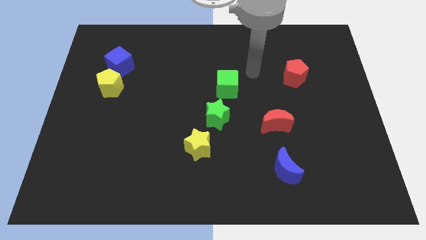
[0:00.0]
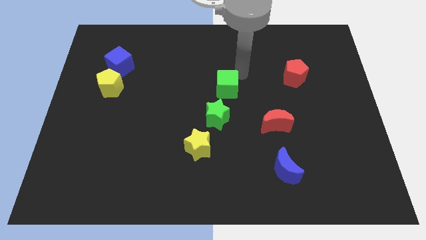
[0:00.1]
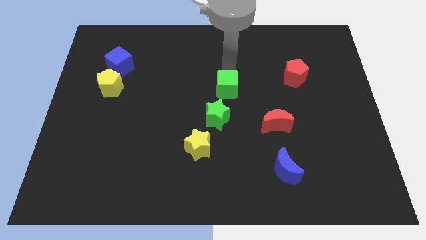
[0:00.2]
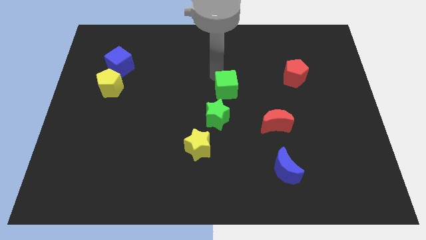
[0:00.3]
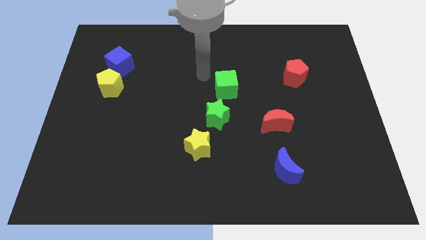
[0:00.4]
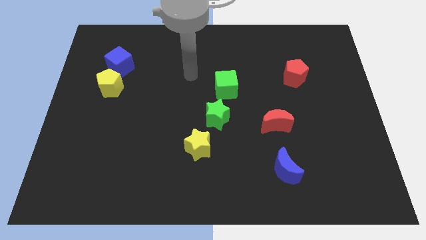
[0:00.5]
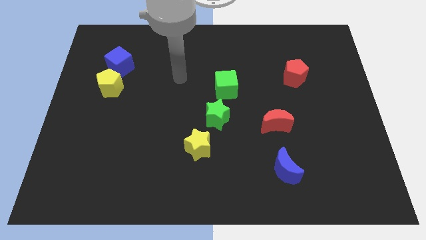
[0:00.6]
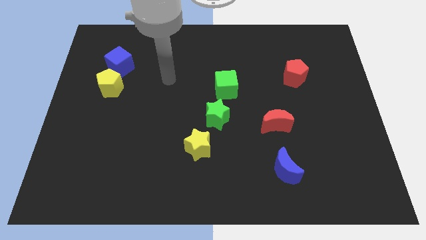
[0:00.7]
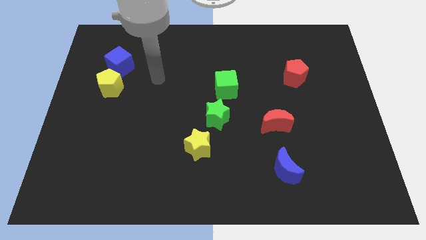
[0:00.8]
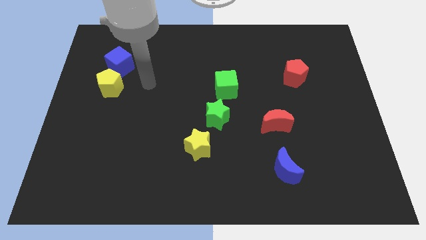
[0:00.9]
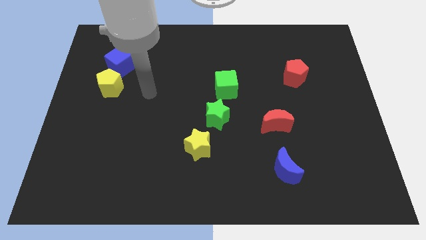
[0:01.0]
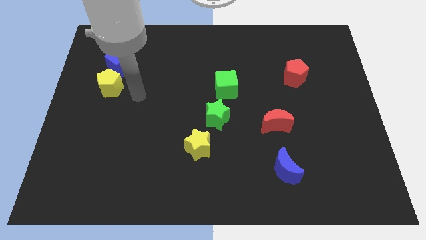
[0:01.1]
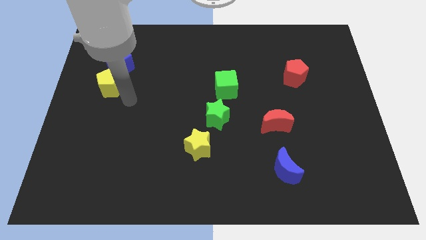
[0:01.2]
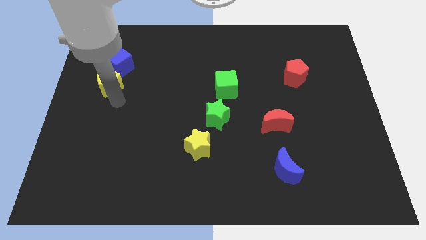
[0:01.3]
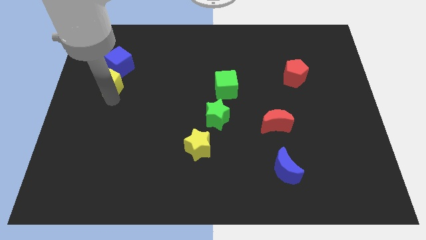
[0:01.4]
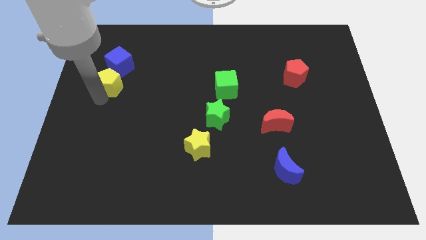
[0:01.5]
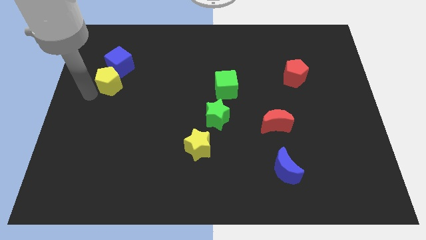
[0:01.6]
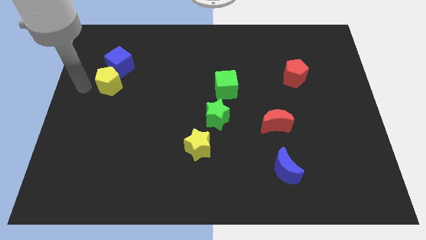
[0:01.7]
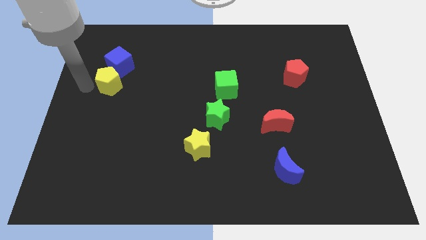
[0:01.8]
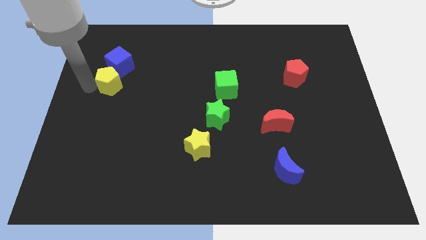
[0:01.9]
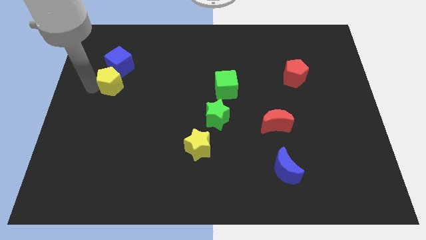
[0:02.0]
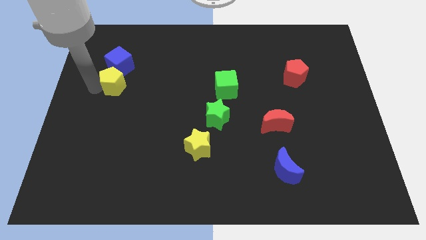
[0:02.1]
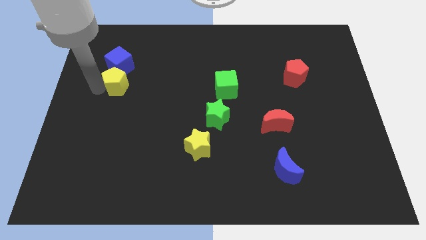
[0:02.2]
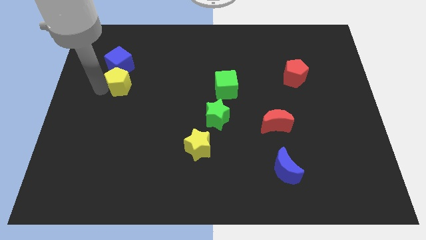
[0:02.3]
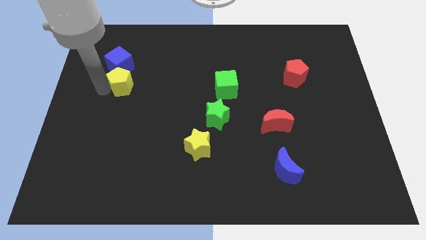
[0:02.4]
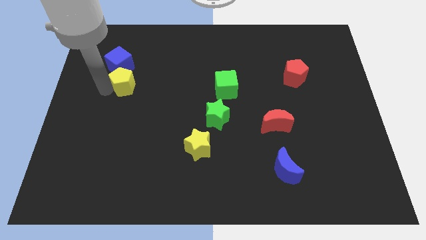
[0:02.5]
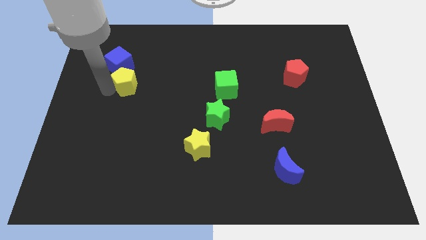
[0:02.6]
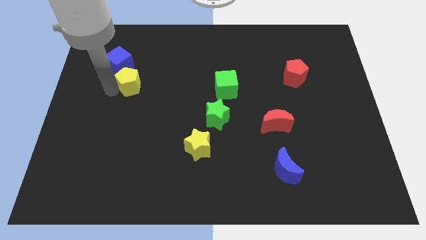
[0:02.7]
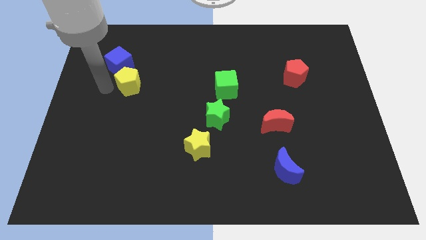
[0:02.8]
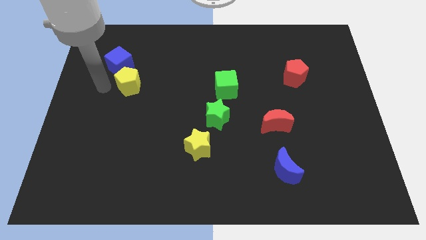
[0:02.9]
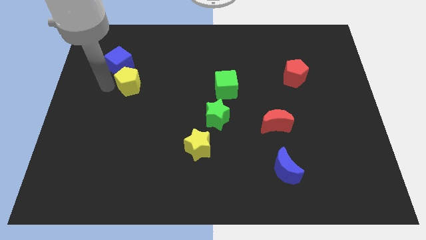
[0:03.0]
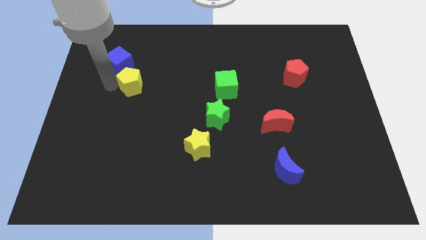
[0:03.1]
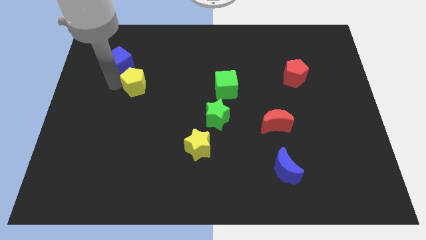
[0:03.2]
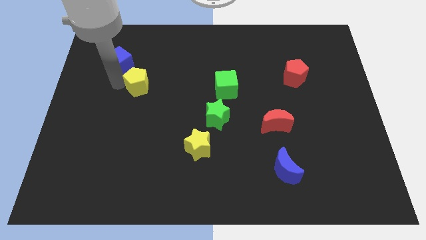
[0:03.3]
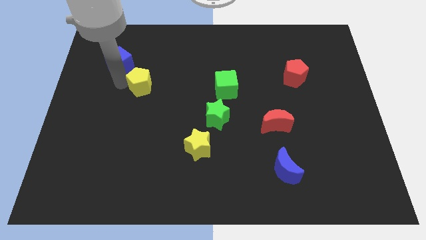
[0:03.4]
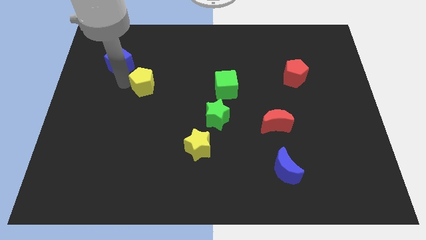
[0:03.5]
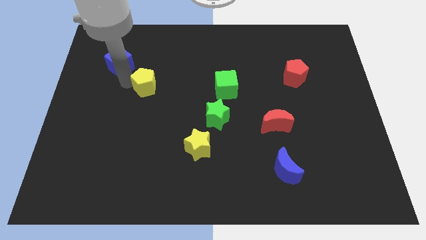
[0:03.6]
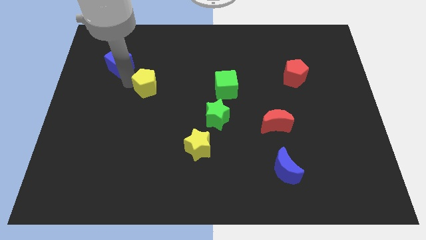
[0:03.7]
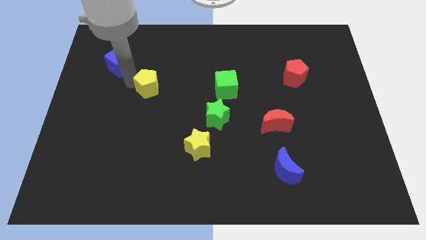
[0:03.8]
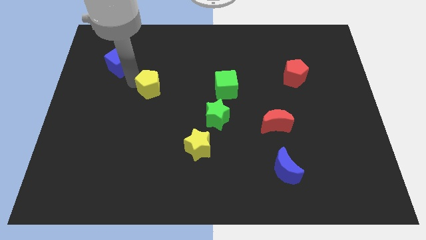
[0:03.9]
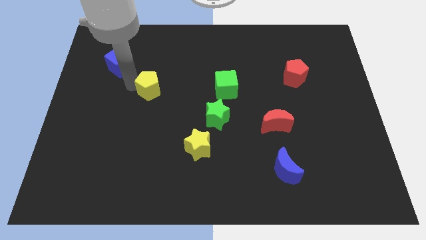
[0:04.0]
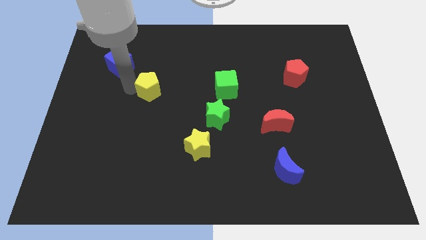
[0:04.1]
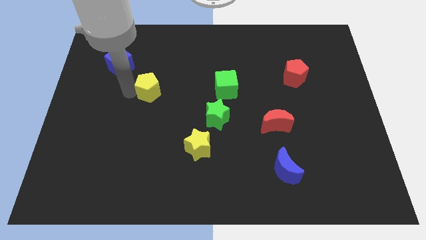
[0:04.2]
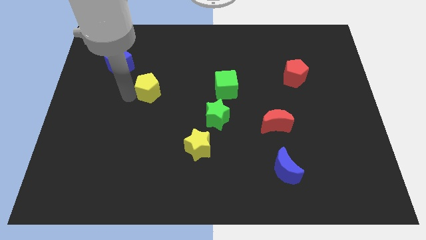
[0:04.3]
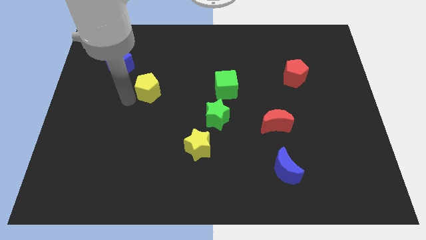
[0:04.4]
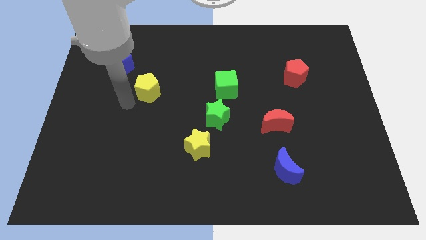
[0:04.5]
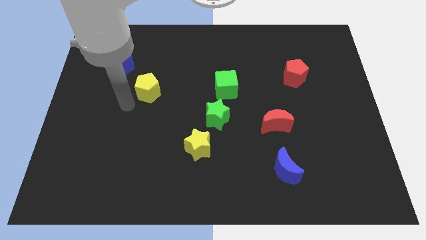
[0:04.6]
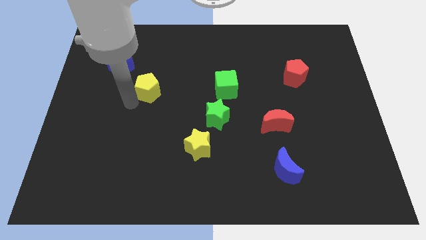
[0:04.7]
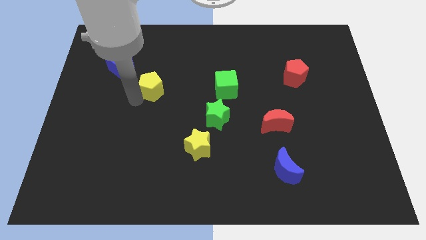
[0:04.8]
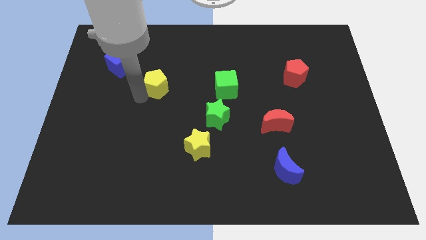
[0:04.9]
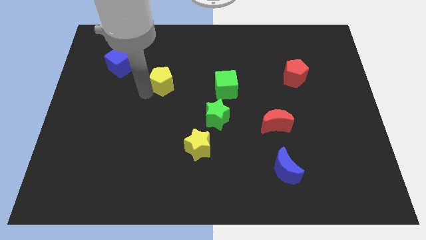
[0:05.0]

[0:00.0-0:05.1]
push the yellow pentagon left of the green cube

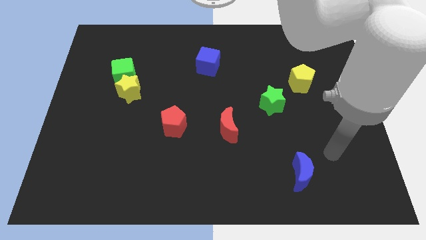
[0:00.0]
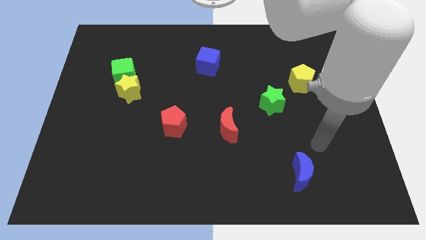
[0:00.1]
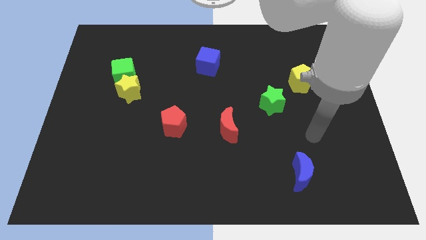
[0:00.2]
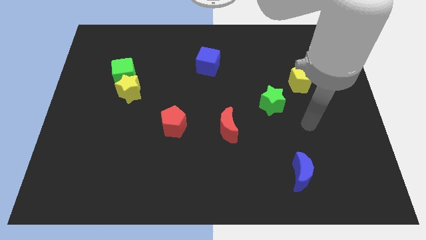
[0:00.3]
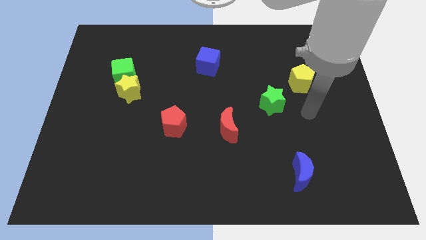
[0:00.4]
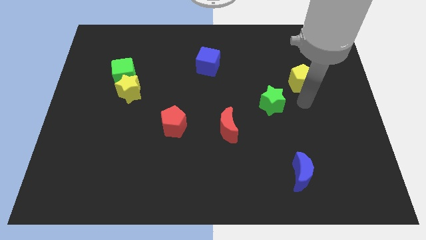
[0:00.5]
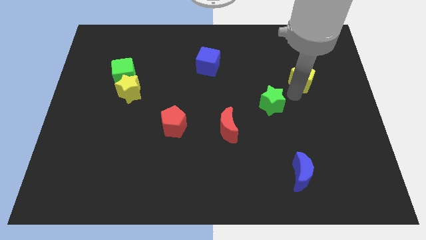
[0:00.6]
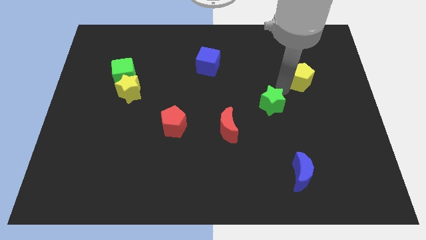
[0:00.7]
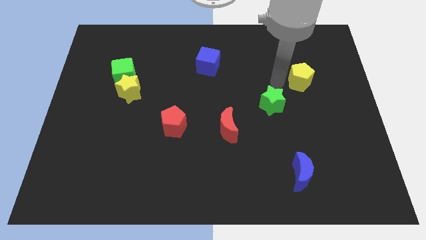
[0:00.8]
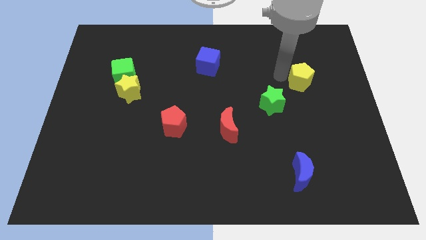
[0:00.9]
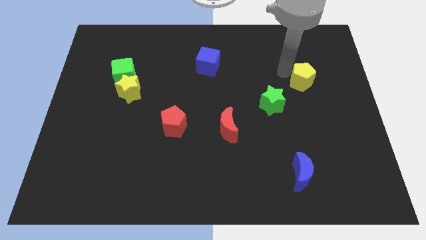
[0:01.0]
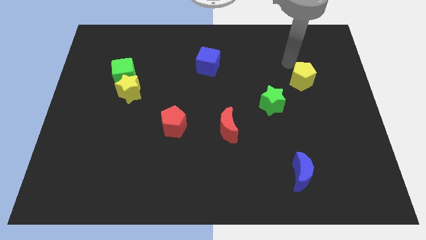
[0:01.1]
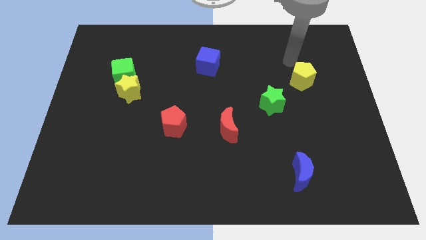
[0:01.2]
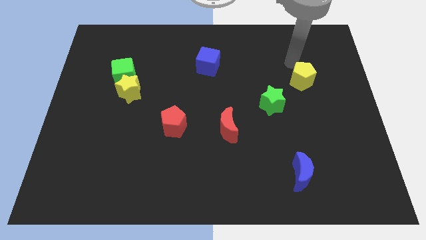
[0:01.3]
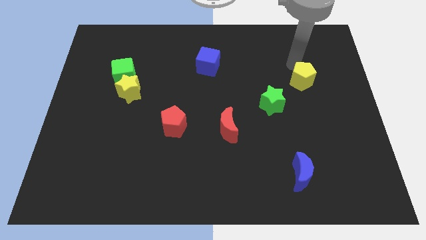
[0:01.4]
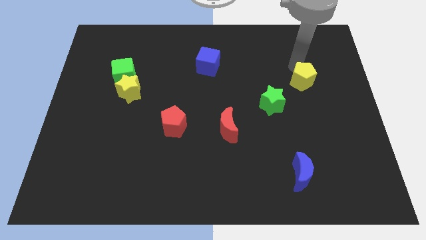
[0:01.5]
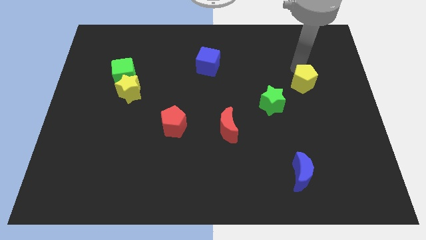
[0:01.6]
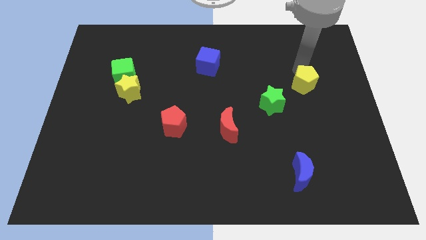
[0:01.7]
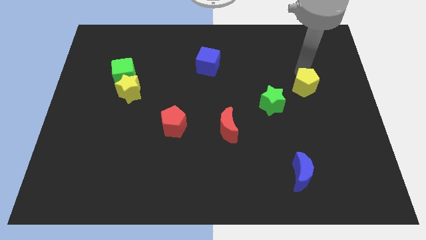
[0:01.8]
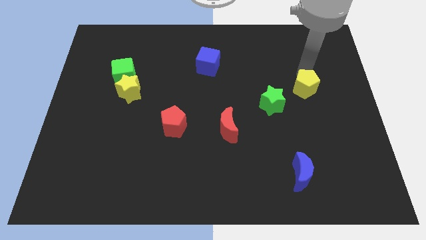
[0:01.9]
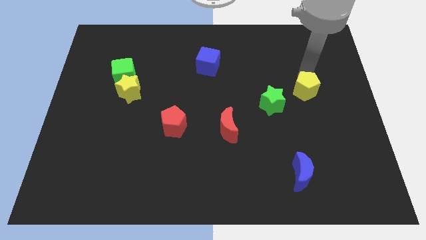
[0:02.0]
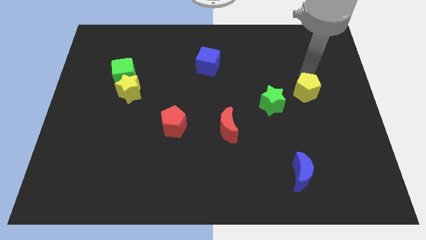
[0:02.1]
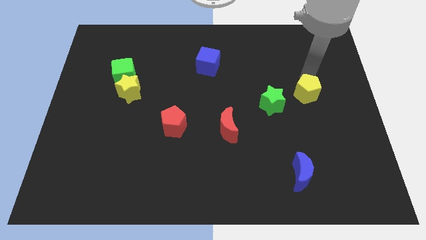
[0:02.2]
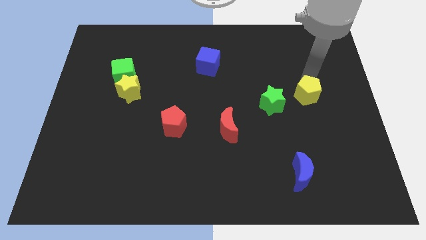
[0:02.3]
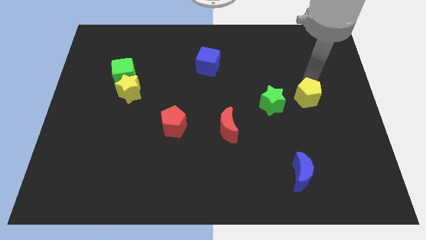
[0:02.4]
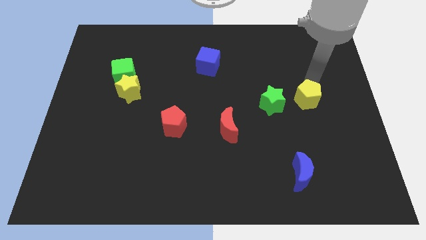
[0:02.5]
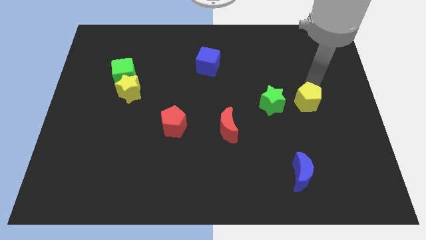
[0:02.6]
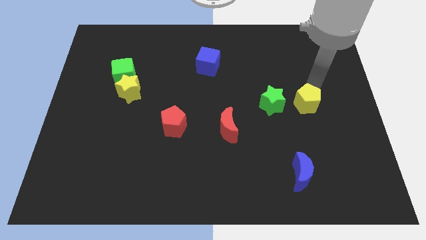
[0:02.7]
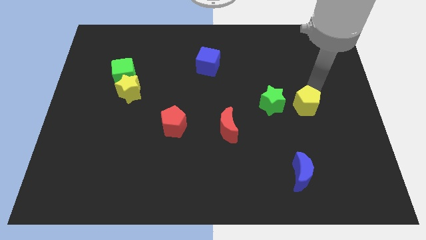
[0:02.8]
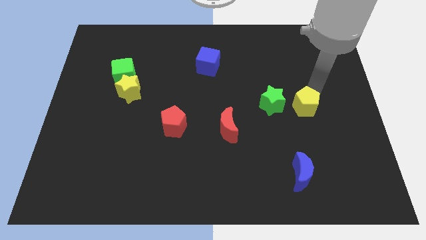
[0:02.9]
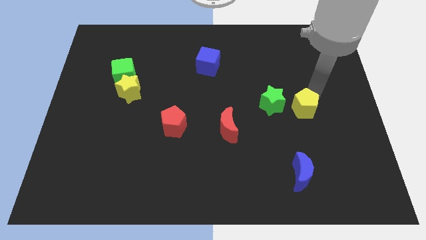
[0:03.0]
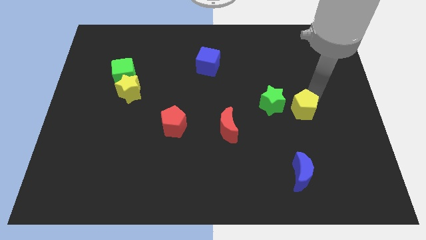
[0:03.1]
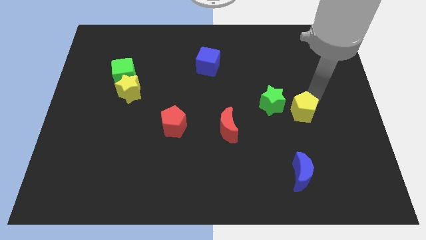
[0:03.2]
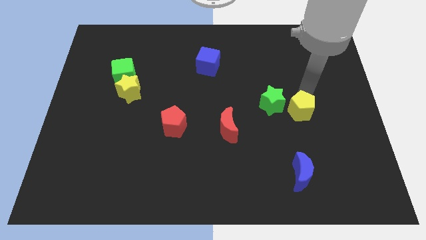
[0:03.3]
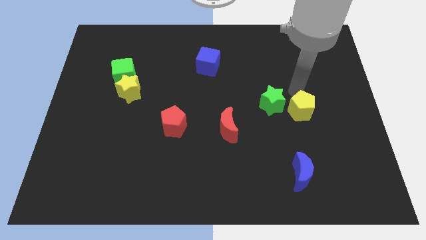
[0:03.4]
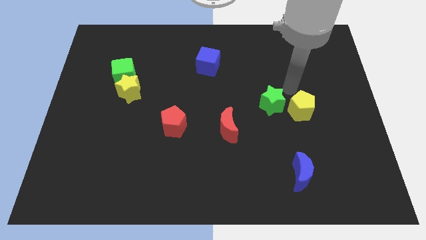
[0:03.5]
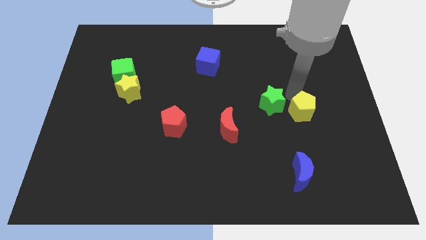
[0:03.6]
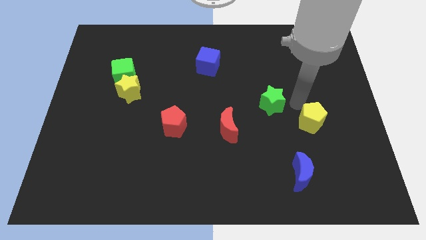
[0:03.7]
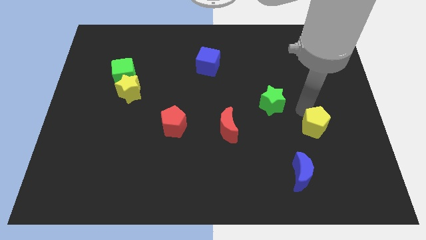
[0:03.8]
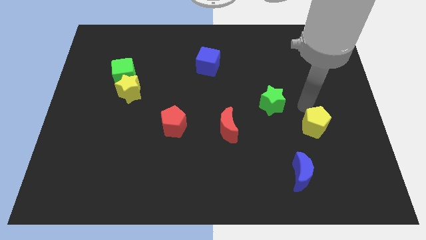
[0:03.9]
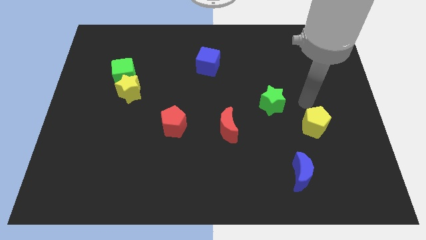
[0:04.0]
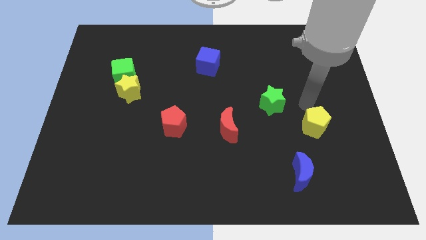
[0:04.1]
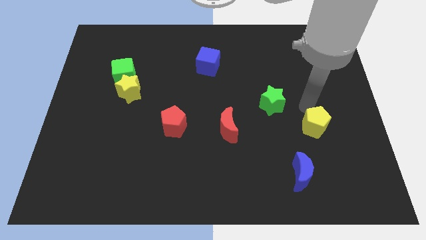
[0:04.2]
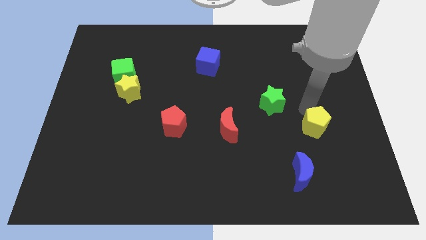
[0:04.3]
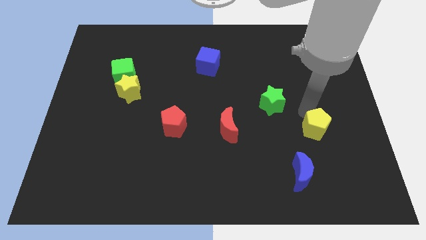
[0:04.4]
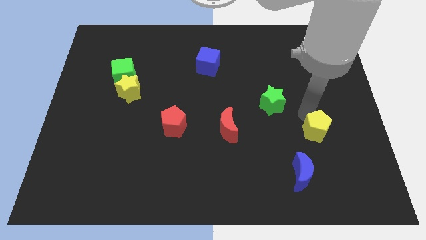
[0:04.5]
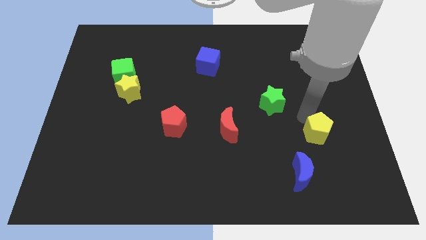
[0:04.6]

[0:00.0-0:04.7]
push the yellow pentagon diagonally up and to the right of the blue moon
